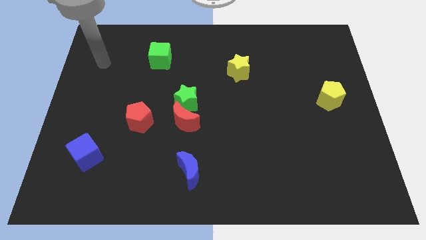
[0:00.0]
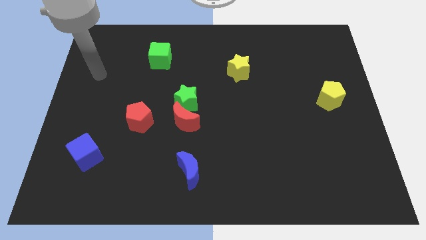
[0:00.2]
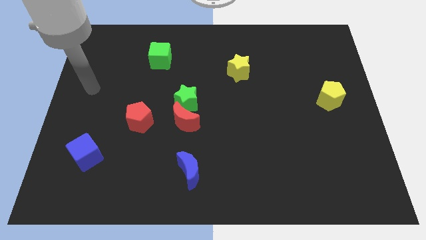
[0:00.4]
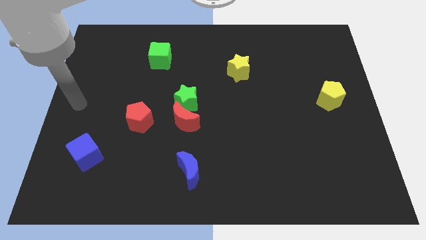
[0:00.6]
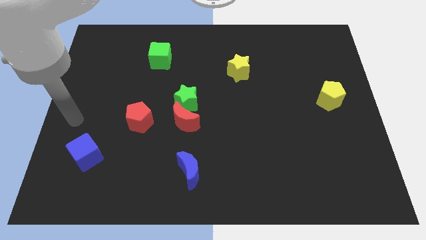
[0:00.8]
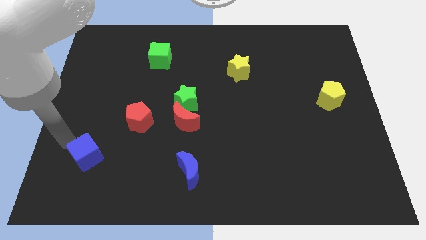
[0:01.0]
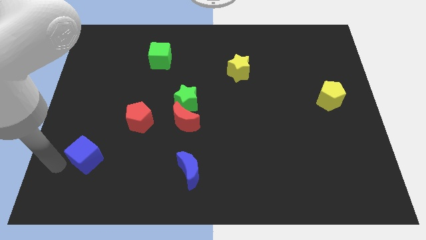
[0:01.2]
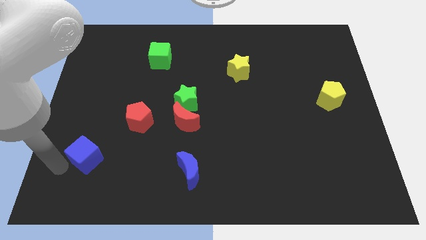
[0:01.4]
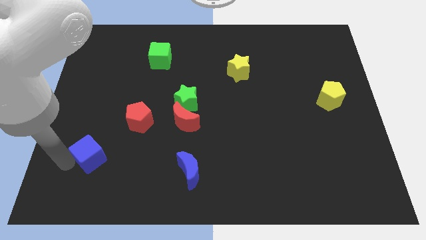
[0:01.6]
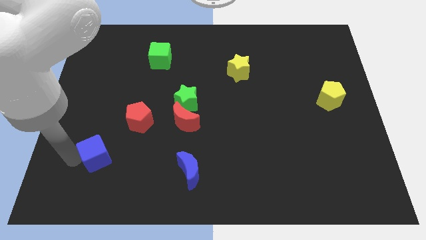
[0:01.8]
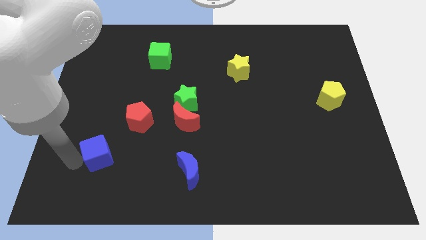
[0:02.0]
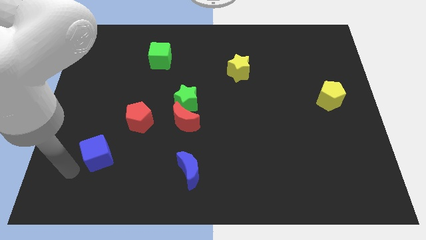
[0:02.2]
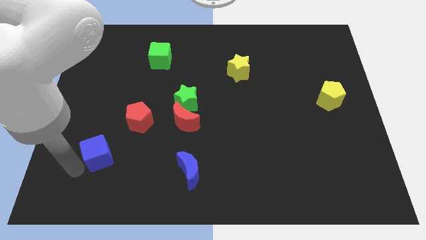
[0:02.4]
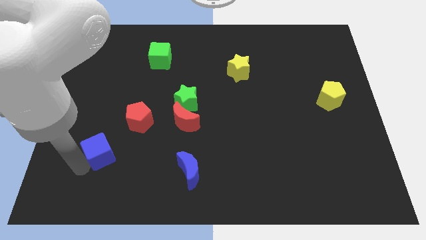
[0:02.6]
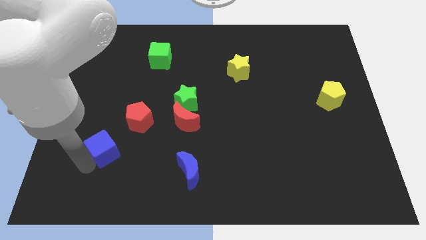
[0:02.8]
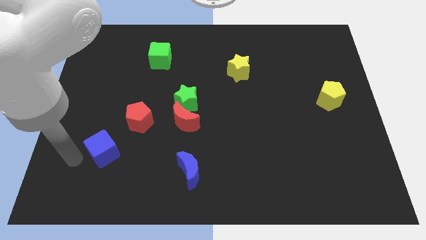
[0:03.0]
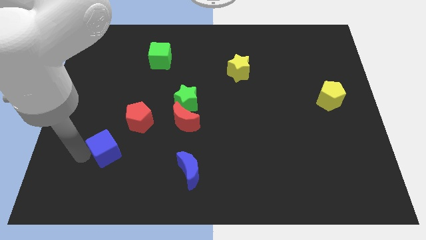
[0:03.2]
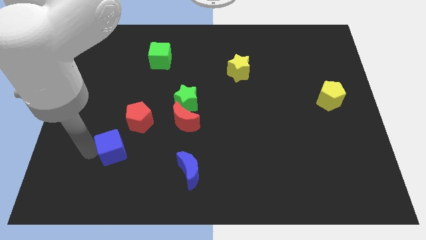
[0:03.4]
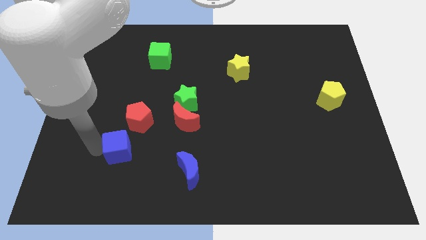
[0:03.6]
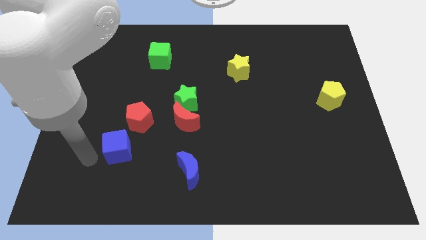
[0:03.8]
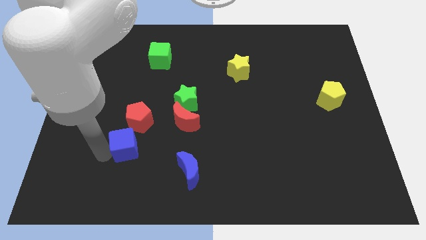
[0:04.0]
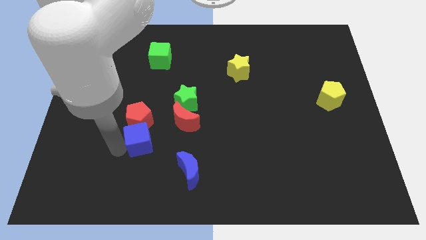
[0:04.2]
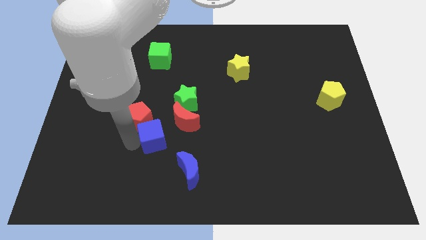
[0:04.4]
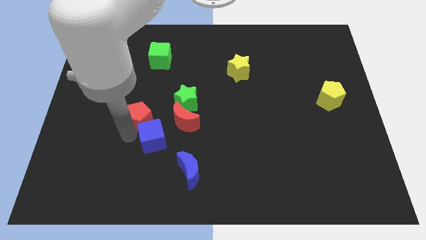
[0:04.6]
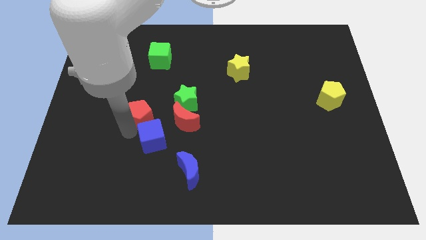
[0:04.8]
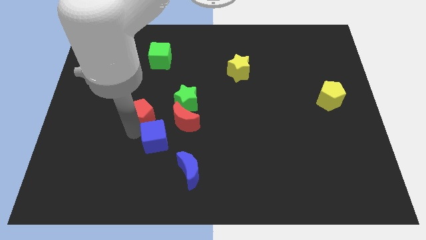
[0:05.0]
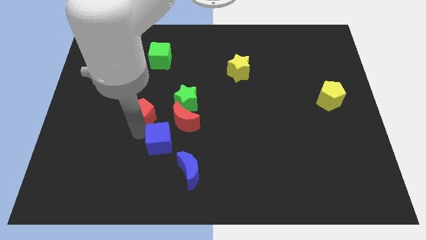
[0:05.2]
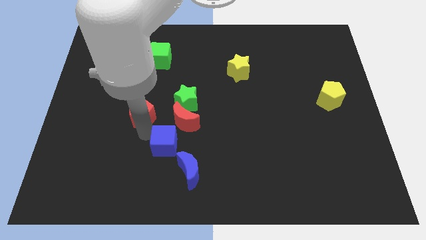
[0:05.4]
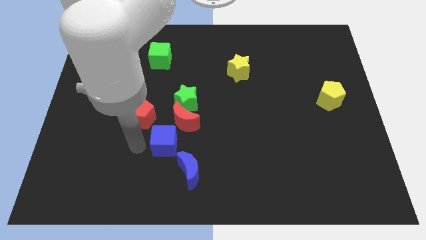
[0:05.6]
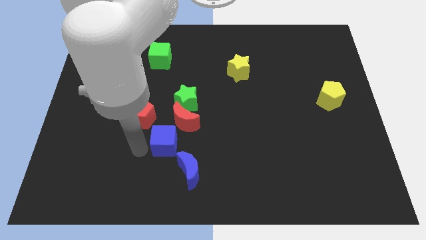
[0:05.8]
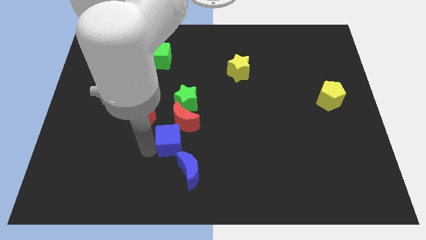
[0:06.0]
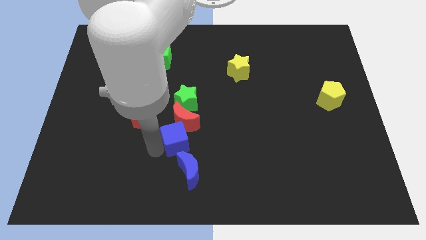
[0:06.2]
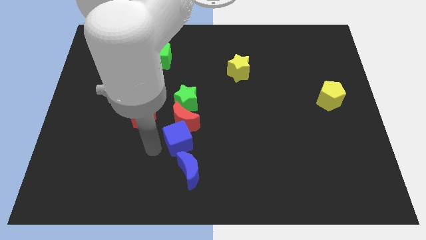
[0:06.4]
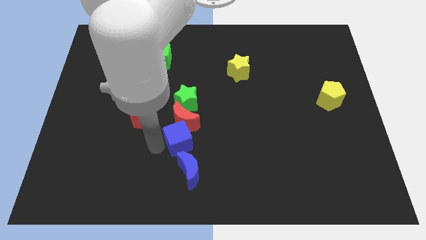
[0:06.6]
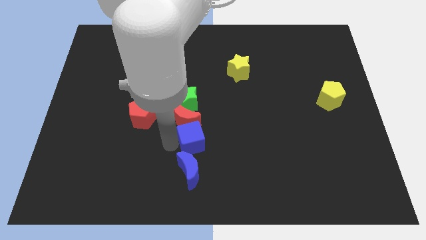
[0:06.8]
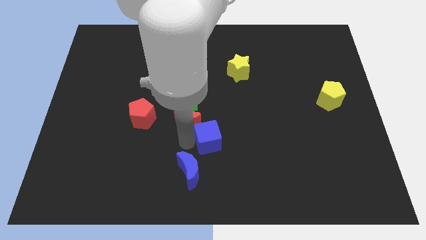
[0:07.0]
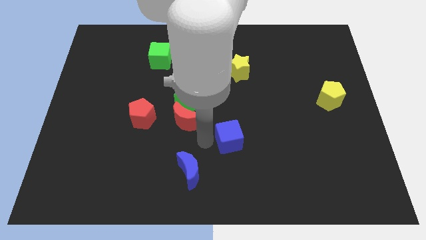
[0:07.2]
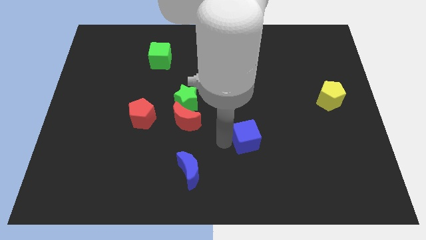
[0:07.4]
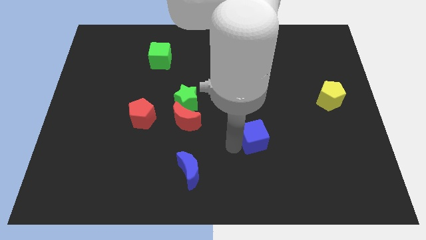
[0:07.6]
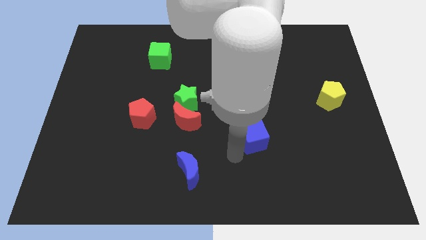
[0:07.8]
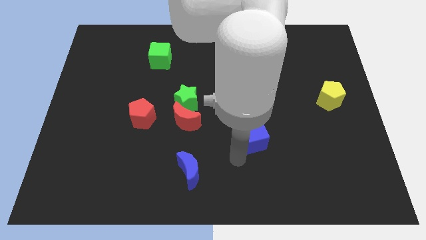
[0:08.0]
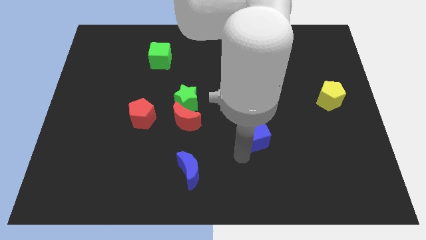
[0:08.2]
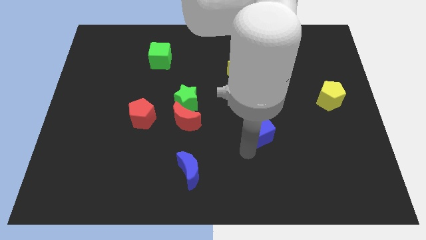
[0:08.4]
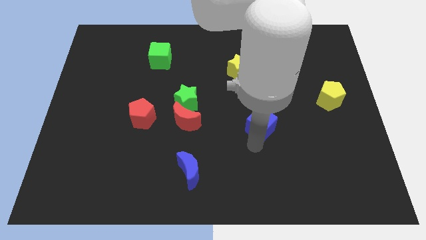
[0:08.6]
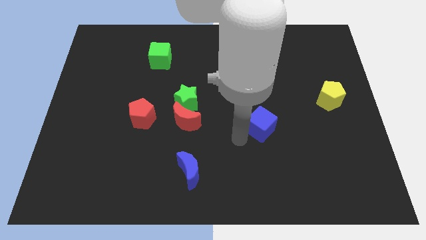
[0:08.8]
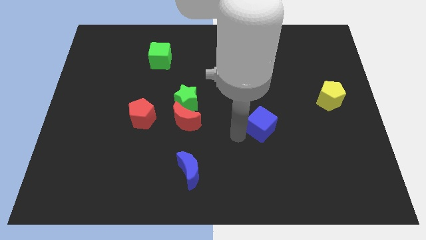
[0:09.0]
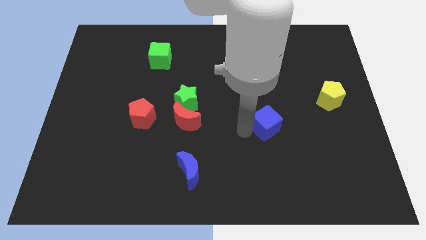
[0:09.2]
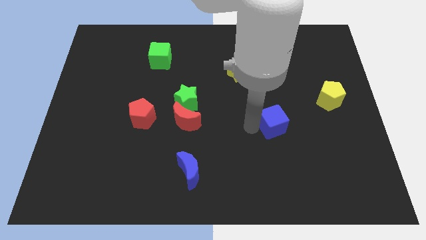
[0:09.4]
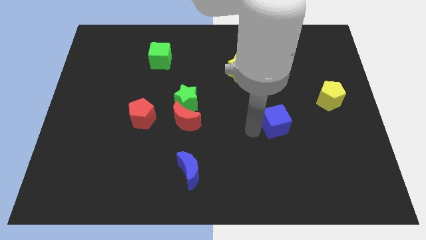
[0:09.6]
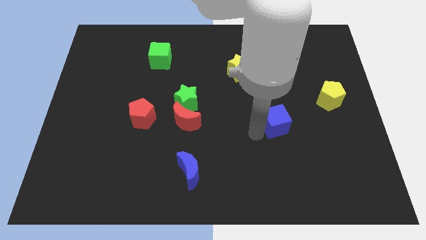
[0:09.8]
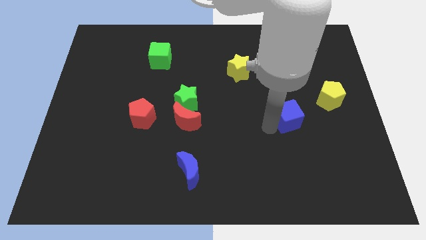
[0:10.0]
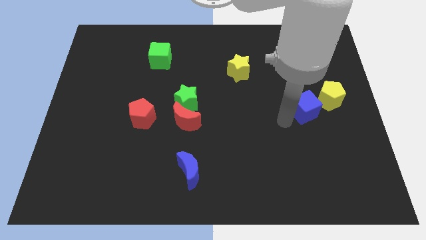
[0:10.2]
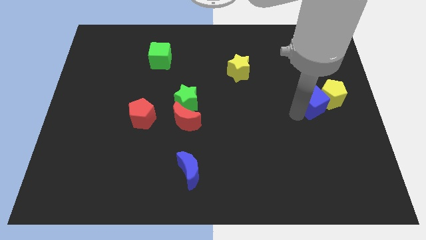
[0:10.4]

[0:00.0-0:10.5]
put the blue cube towards the yellow pentagon

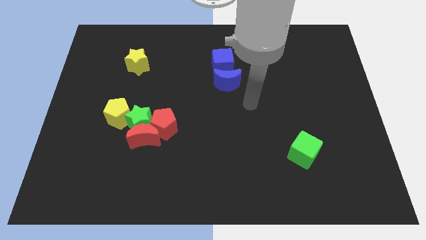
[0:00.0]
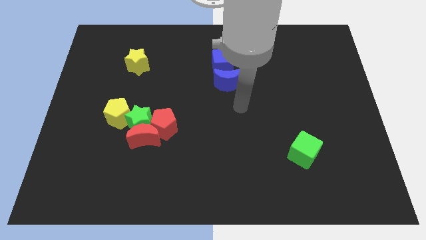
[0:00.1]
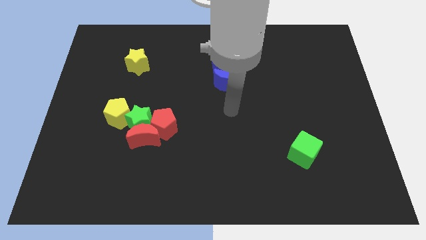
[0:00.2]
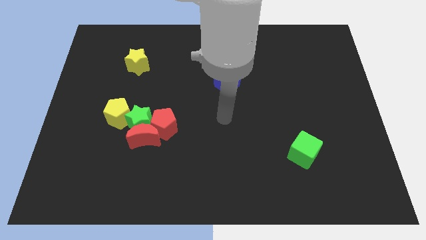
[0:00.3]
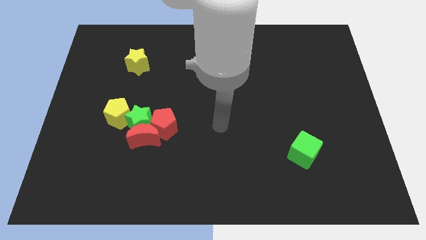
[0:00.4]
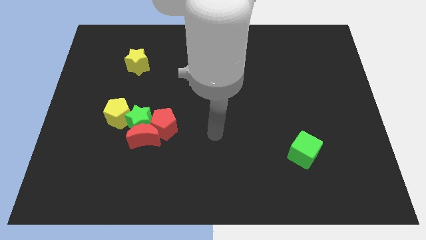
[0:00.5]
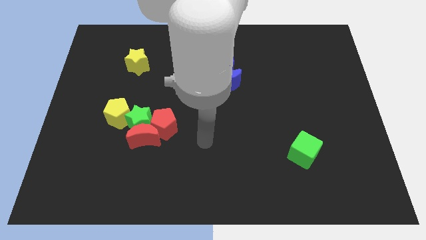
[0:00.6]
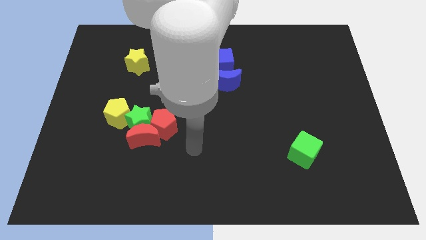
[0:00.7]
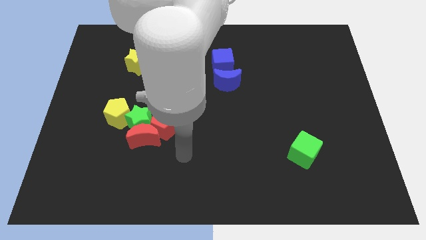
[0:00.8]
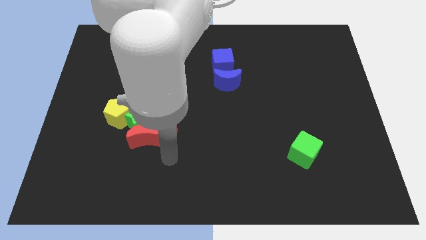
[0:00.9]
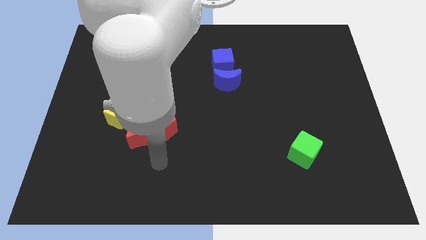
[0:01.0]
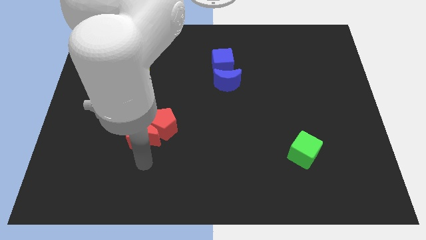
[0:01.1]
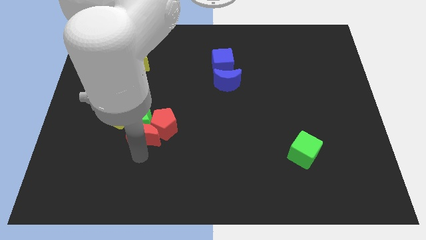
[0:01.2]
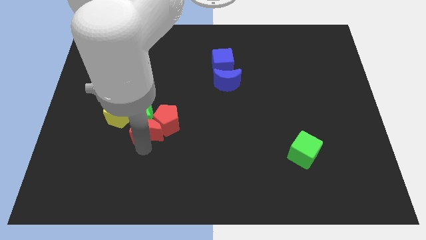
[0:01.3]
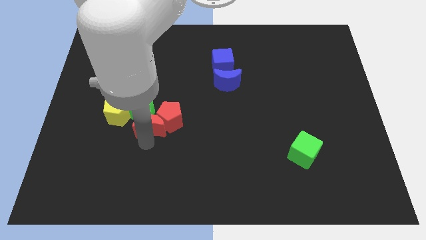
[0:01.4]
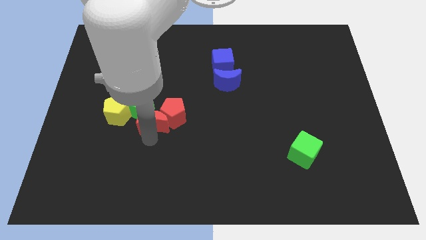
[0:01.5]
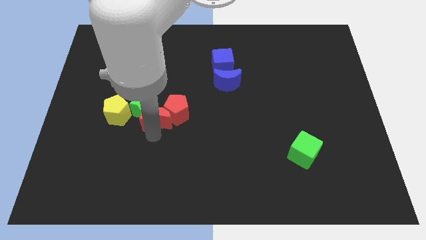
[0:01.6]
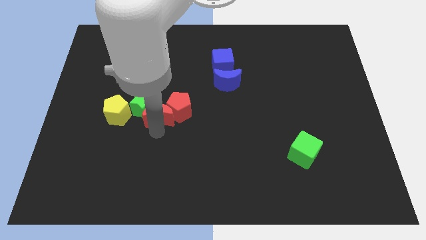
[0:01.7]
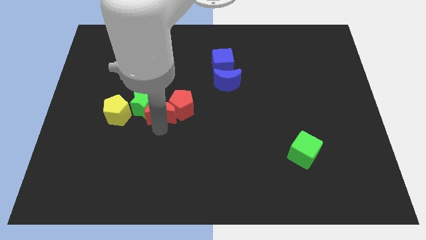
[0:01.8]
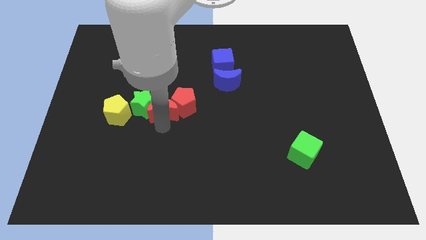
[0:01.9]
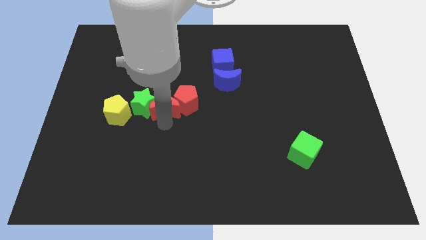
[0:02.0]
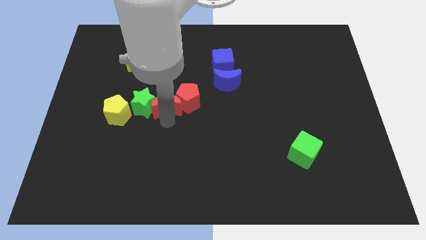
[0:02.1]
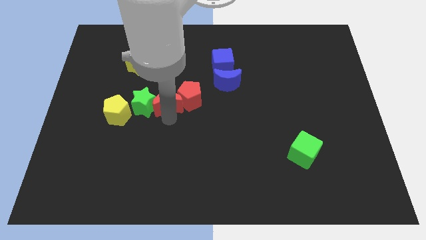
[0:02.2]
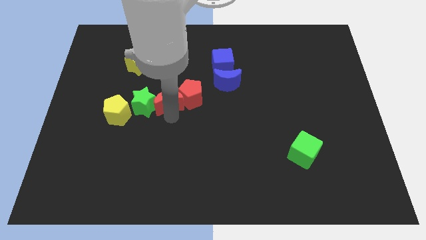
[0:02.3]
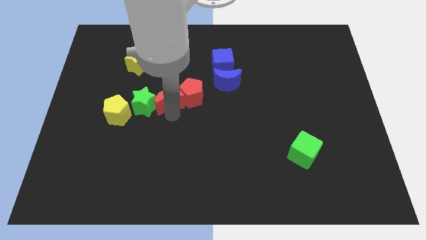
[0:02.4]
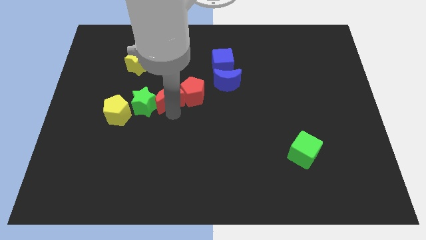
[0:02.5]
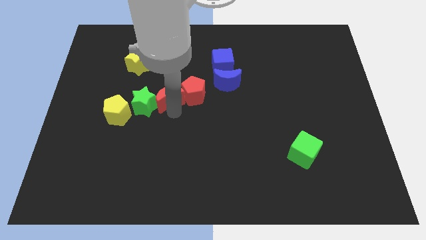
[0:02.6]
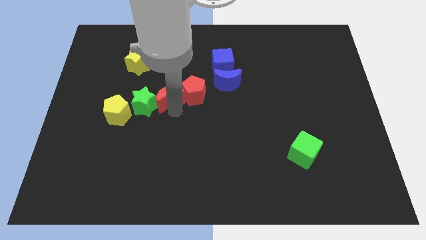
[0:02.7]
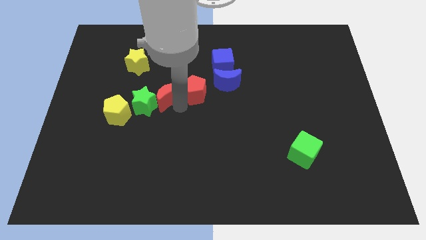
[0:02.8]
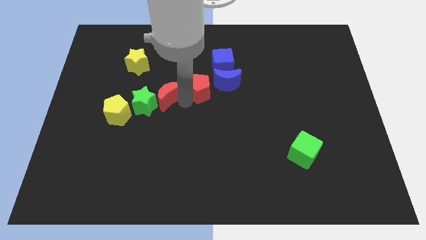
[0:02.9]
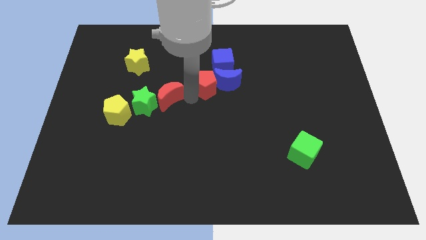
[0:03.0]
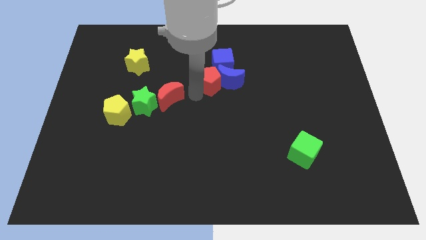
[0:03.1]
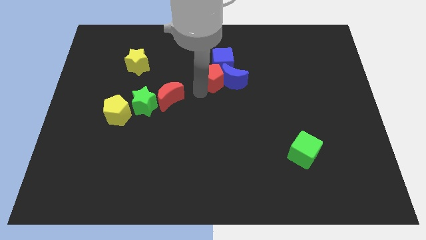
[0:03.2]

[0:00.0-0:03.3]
slide the red pentagon towards the blue cube
